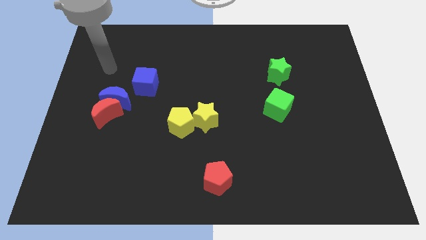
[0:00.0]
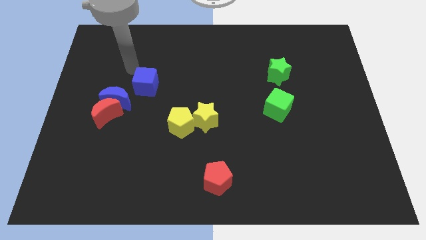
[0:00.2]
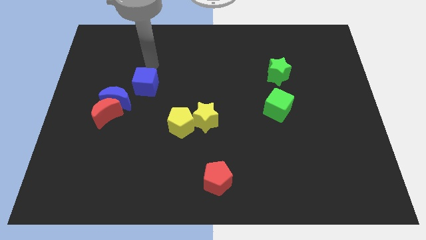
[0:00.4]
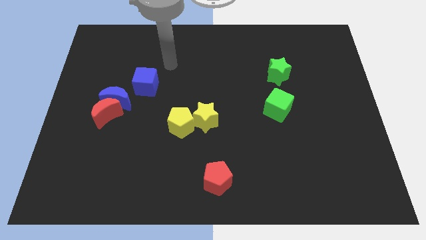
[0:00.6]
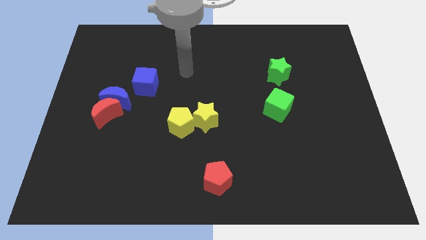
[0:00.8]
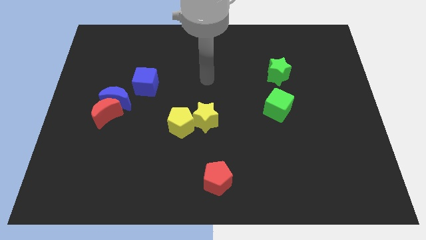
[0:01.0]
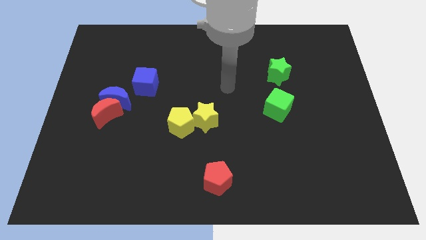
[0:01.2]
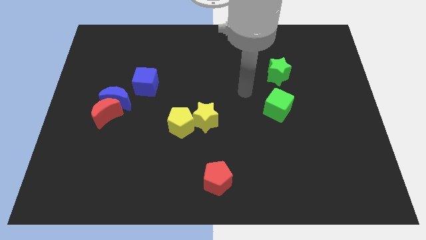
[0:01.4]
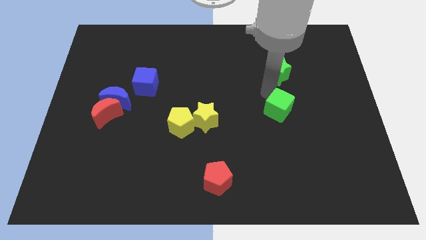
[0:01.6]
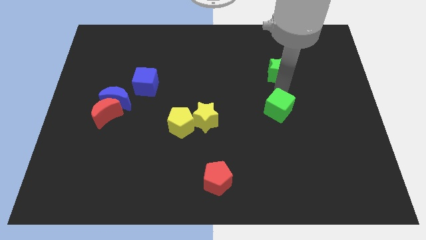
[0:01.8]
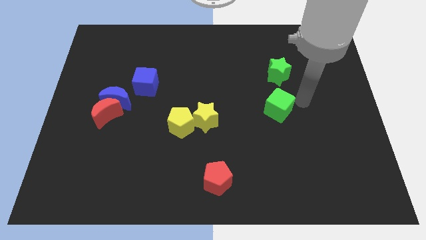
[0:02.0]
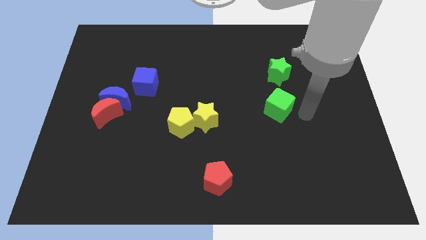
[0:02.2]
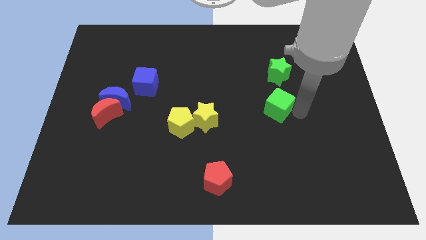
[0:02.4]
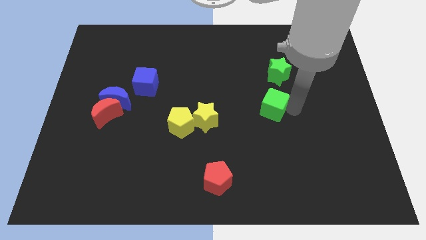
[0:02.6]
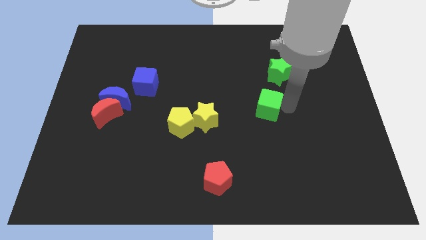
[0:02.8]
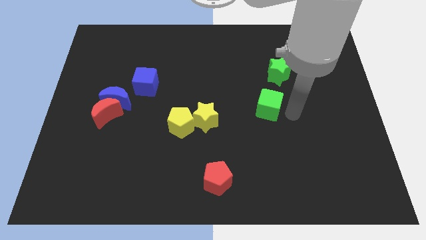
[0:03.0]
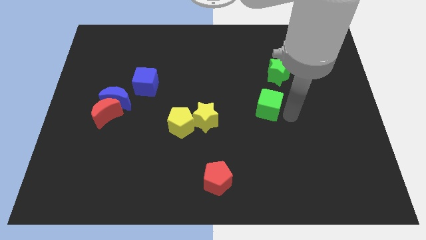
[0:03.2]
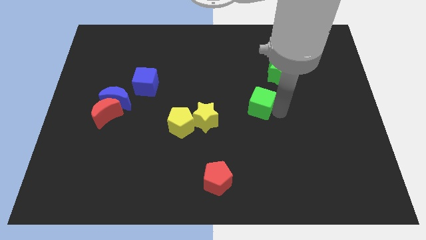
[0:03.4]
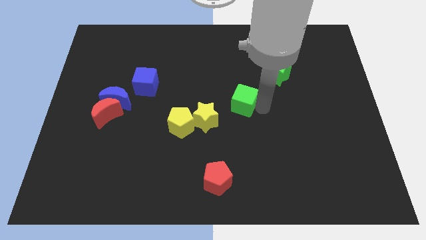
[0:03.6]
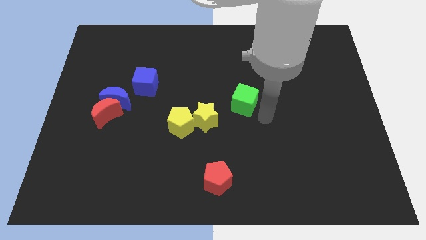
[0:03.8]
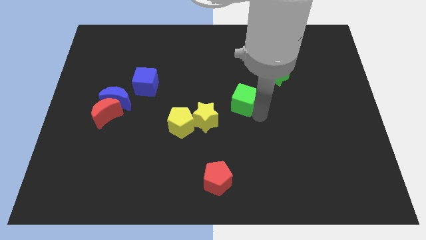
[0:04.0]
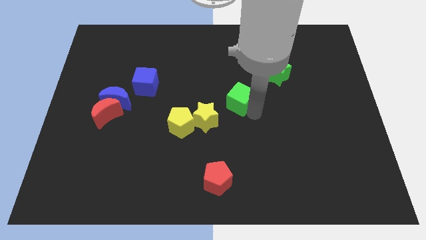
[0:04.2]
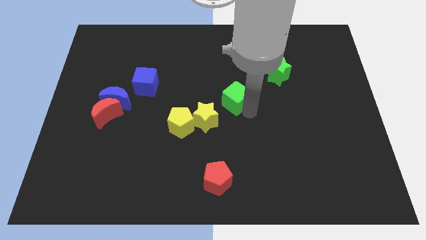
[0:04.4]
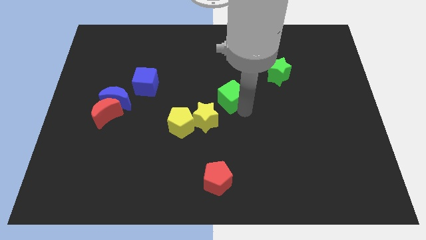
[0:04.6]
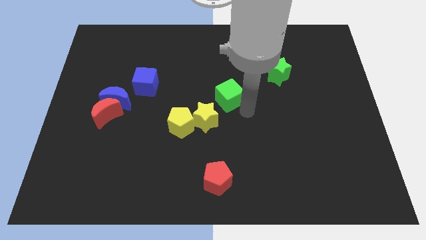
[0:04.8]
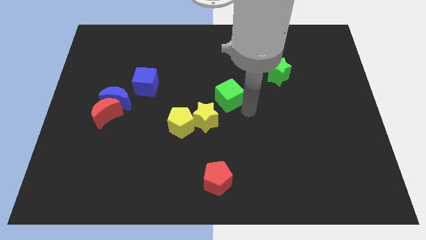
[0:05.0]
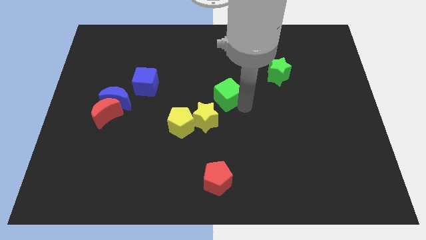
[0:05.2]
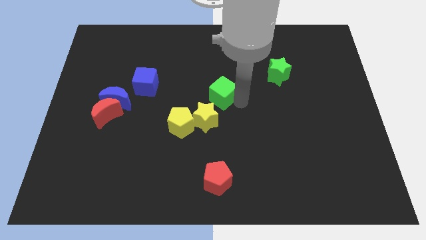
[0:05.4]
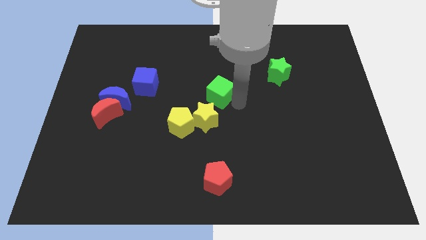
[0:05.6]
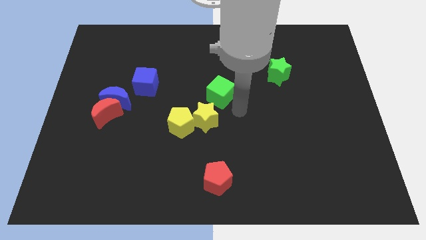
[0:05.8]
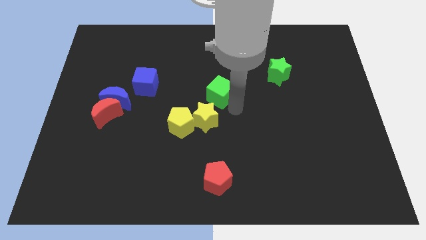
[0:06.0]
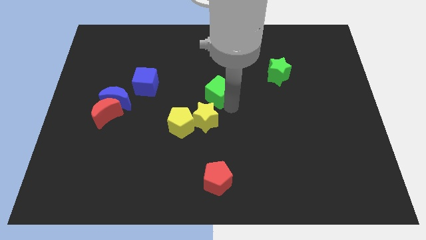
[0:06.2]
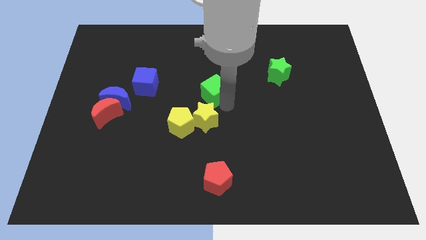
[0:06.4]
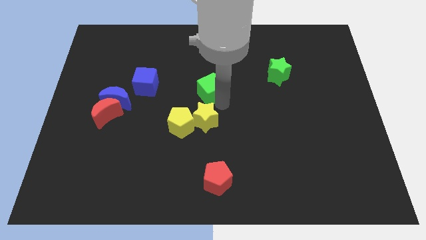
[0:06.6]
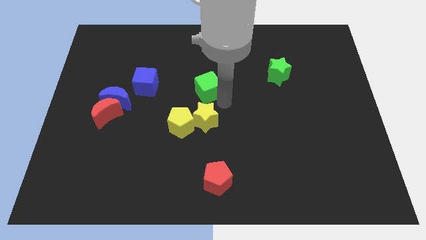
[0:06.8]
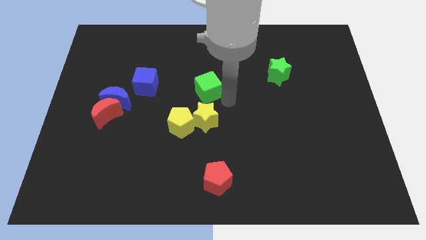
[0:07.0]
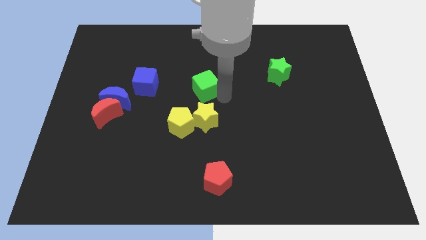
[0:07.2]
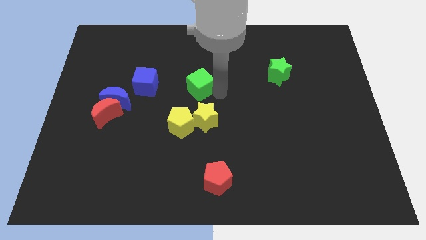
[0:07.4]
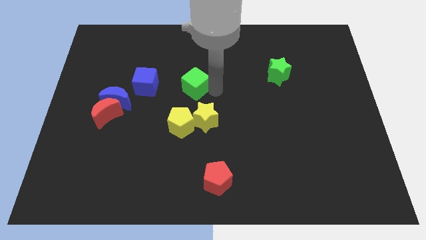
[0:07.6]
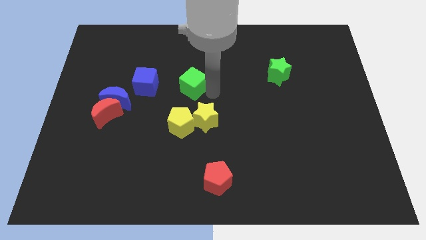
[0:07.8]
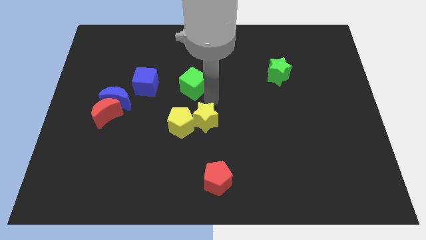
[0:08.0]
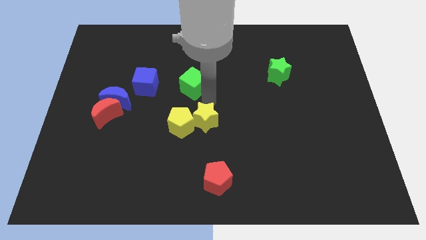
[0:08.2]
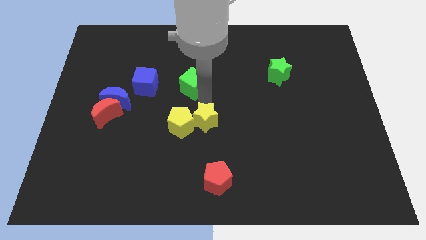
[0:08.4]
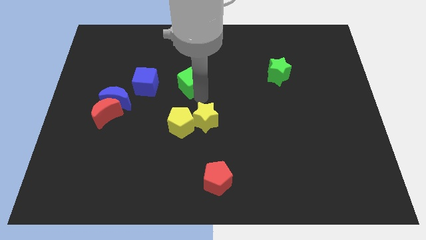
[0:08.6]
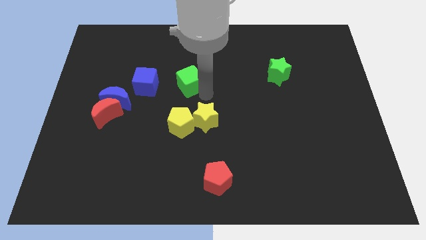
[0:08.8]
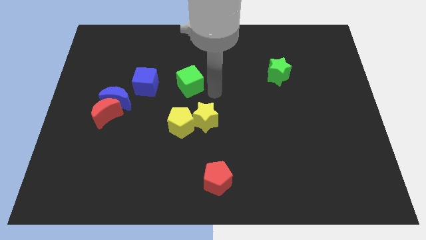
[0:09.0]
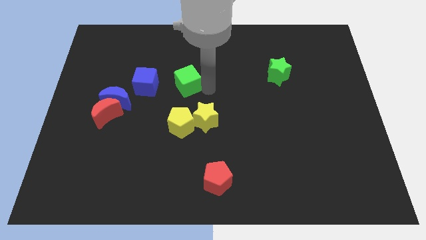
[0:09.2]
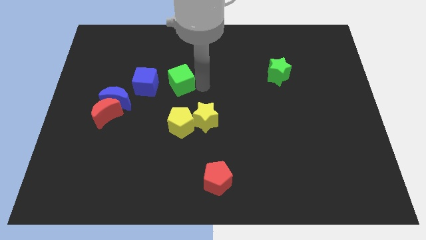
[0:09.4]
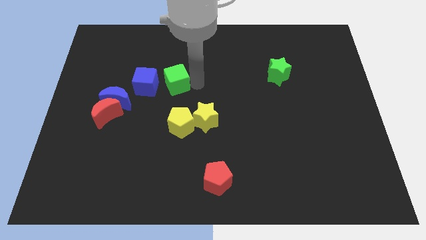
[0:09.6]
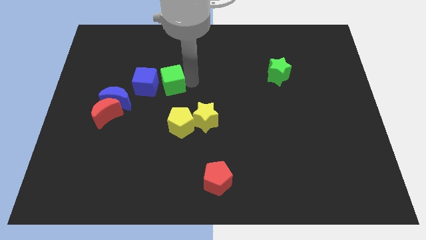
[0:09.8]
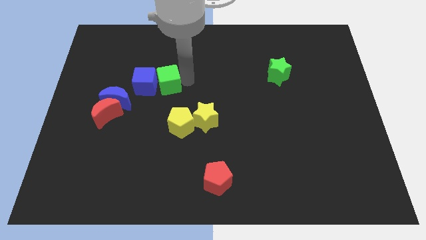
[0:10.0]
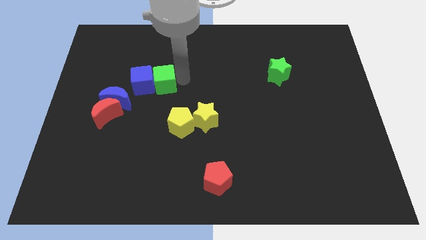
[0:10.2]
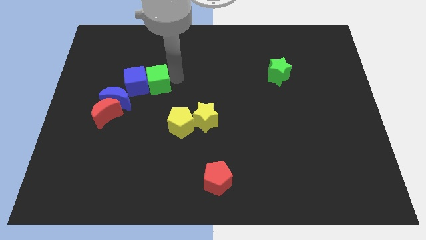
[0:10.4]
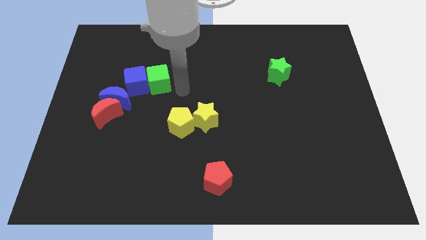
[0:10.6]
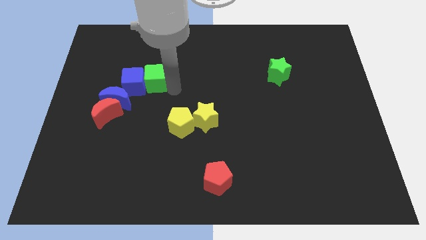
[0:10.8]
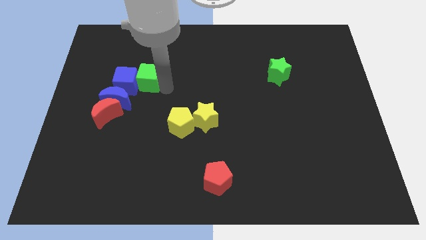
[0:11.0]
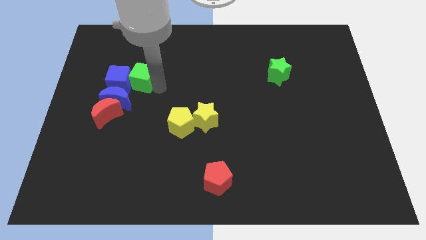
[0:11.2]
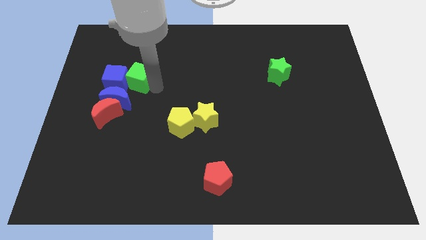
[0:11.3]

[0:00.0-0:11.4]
slide the green cube to the top of the blue moon

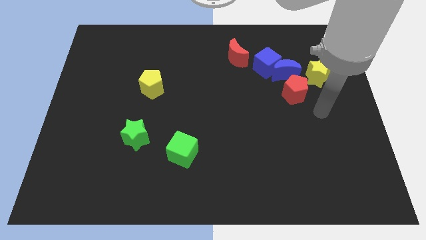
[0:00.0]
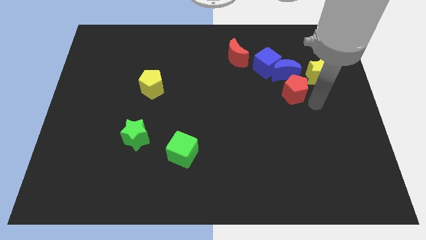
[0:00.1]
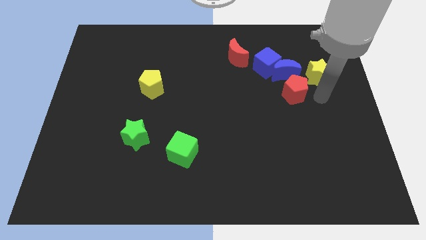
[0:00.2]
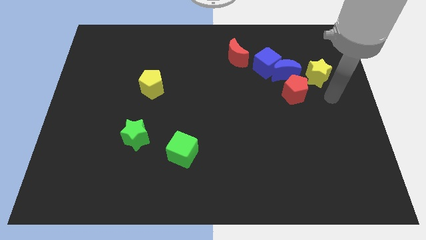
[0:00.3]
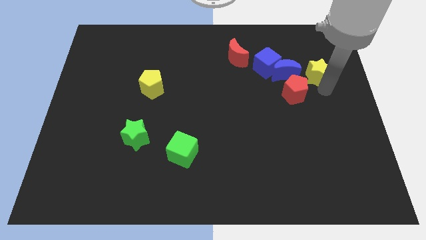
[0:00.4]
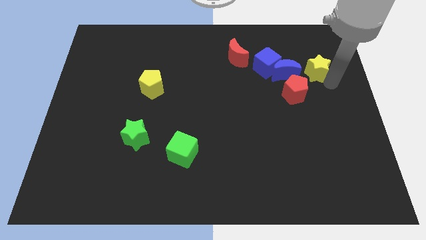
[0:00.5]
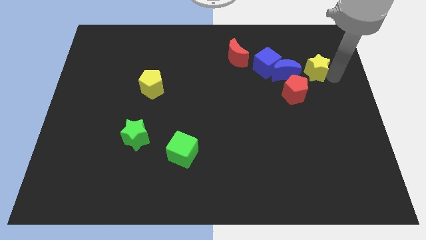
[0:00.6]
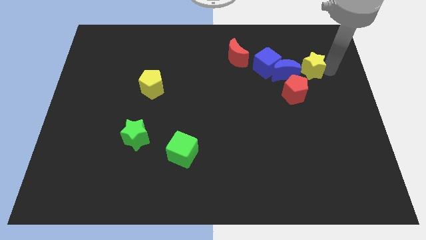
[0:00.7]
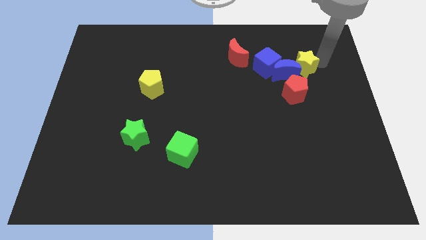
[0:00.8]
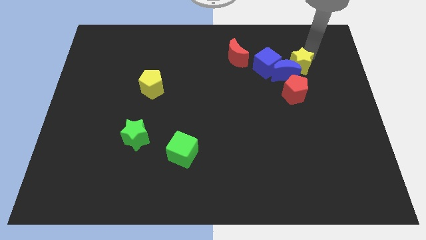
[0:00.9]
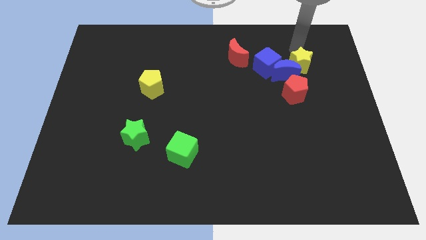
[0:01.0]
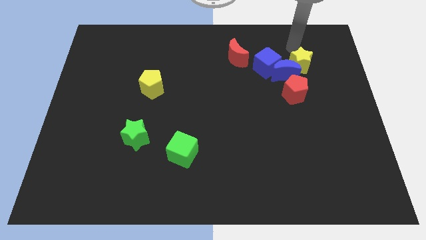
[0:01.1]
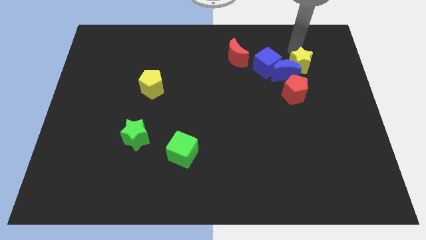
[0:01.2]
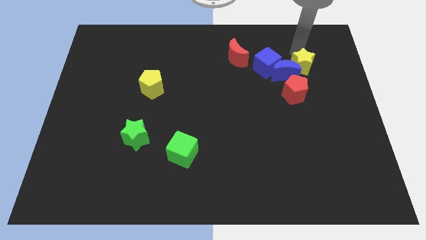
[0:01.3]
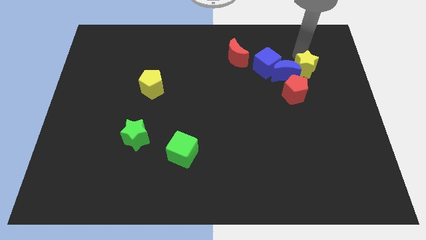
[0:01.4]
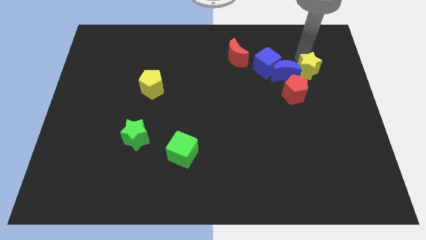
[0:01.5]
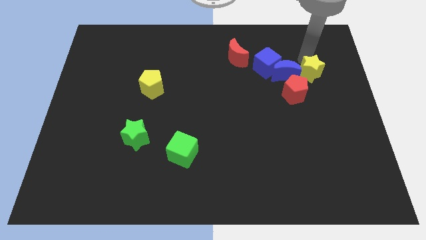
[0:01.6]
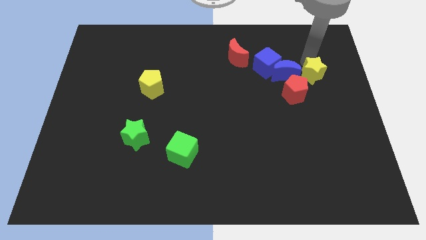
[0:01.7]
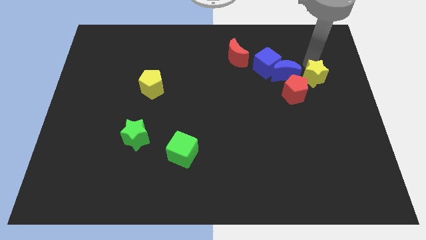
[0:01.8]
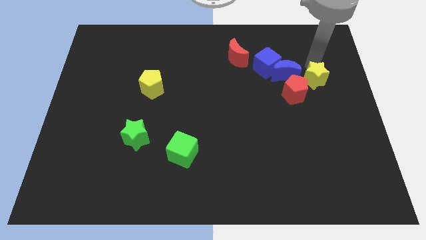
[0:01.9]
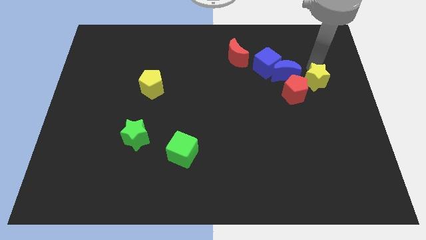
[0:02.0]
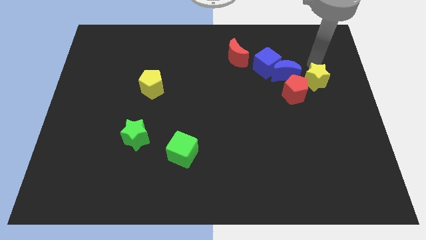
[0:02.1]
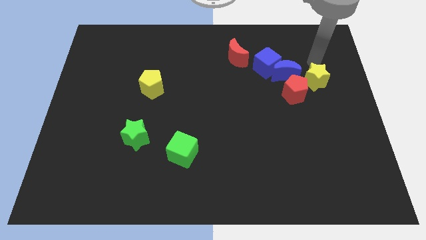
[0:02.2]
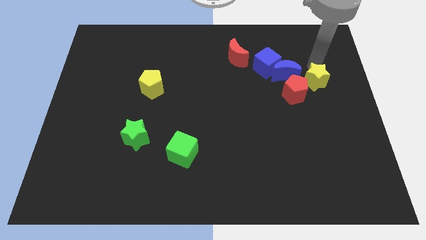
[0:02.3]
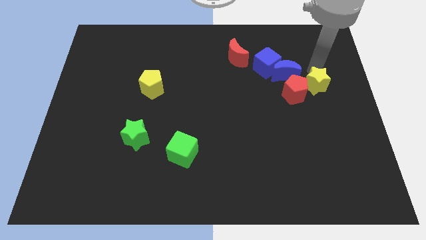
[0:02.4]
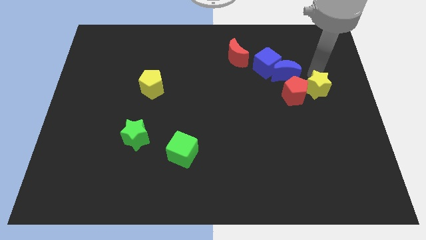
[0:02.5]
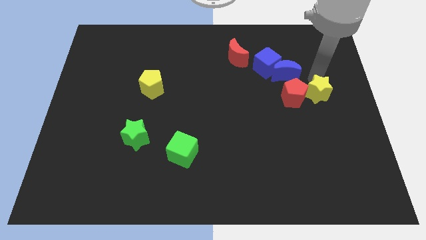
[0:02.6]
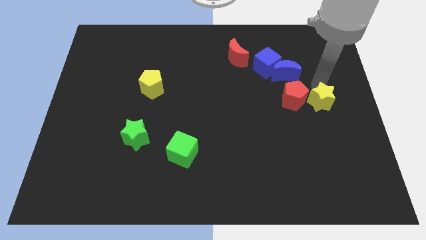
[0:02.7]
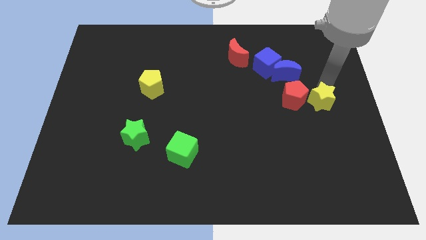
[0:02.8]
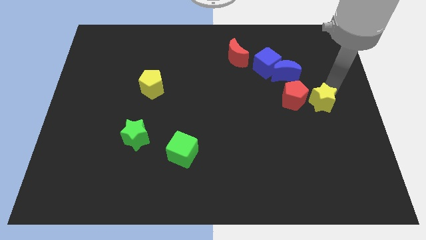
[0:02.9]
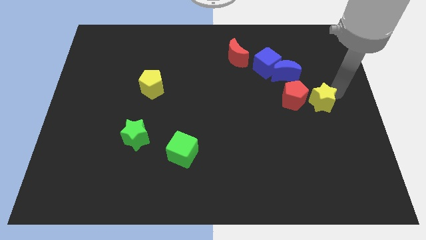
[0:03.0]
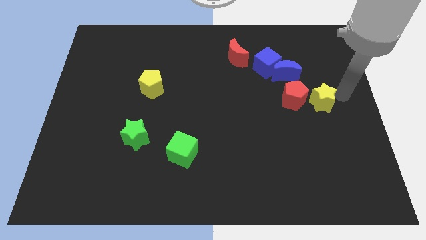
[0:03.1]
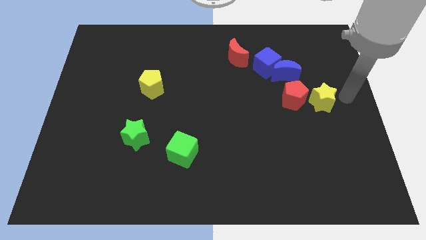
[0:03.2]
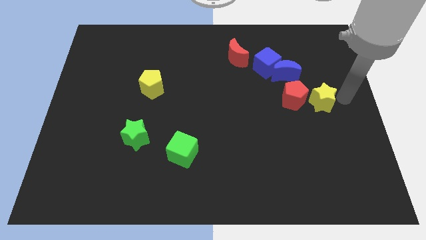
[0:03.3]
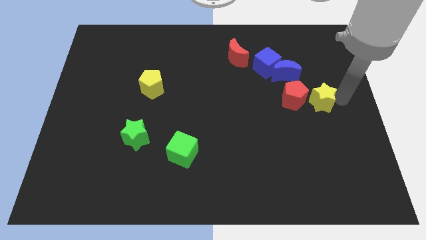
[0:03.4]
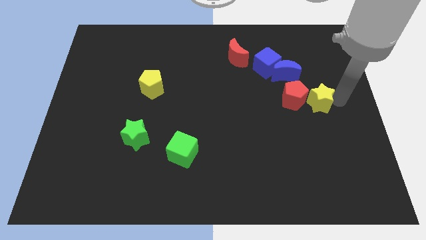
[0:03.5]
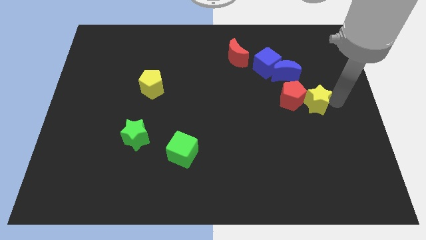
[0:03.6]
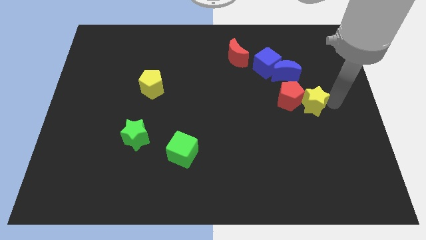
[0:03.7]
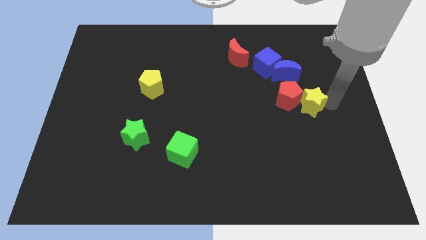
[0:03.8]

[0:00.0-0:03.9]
push the yellow star to the bottom side of the blue moon
